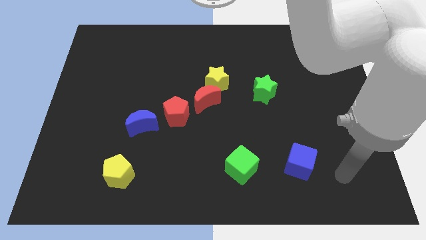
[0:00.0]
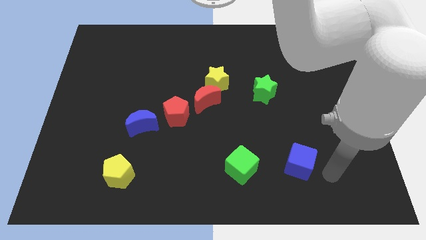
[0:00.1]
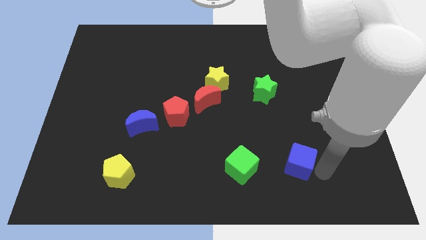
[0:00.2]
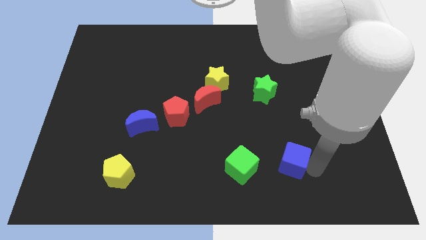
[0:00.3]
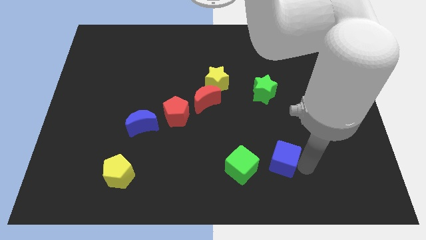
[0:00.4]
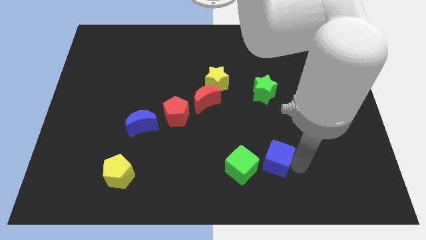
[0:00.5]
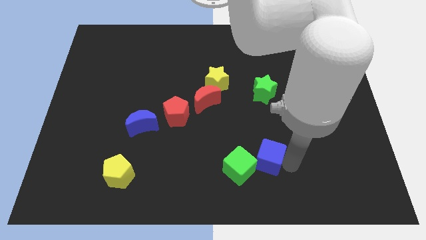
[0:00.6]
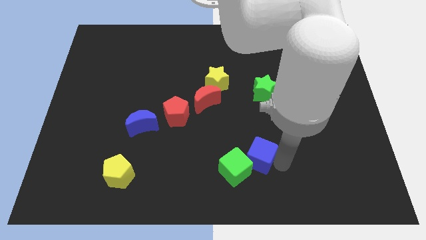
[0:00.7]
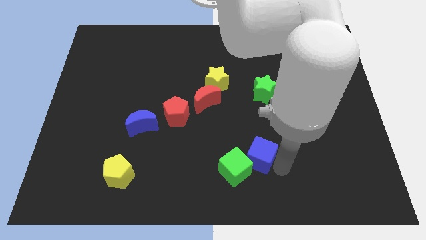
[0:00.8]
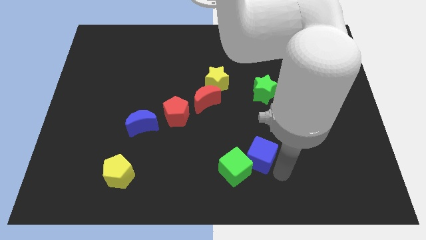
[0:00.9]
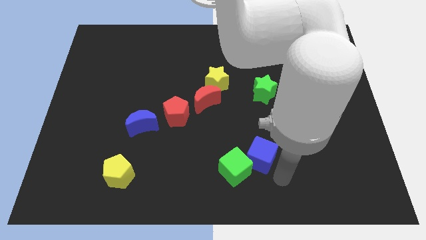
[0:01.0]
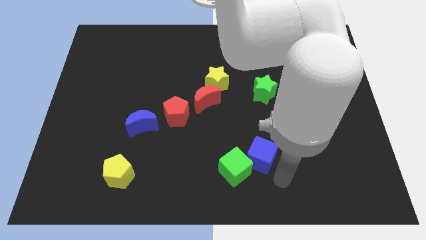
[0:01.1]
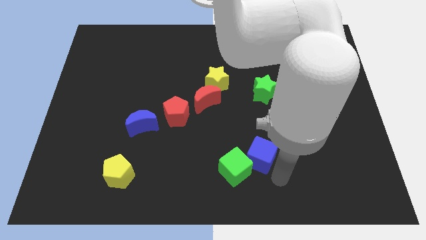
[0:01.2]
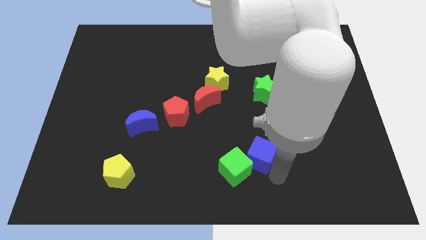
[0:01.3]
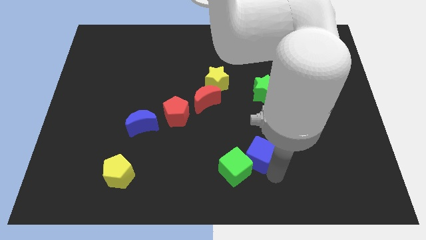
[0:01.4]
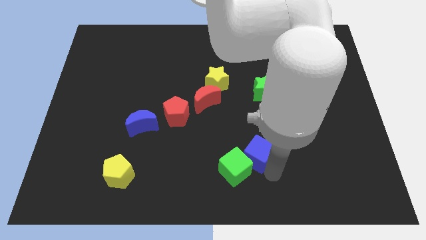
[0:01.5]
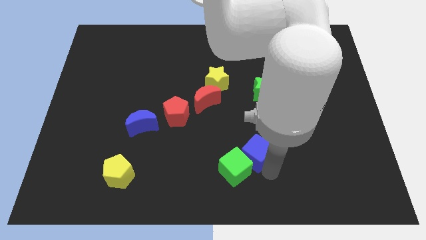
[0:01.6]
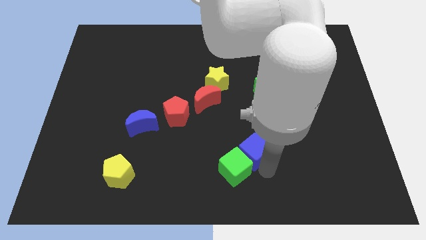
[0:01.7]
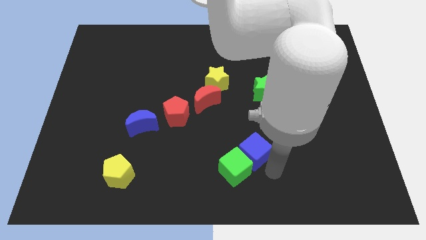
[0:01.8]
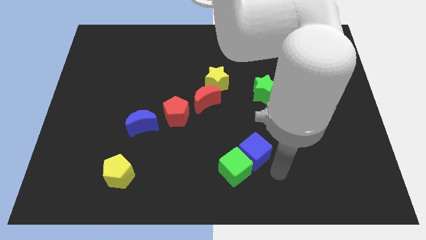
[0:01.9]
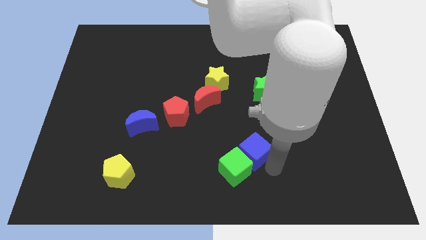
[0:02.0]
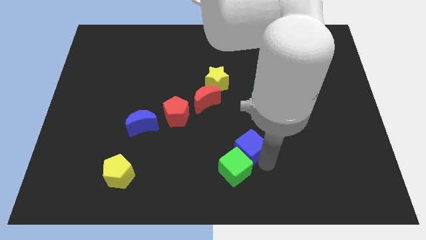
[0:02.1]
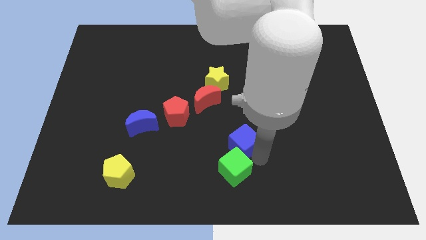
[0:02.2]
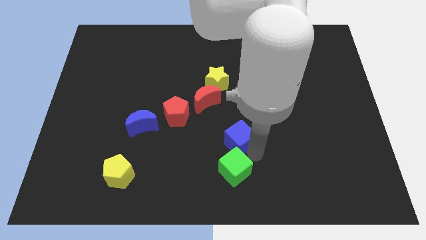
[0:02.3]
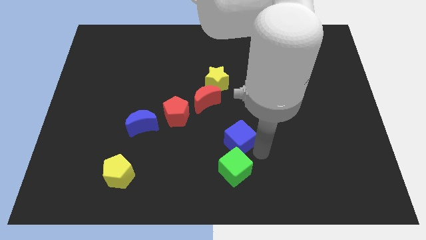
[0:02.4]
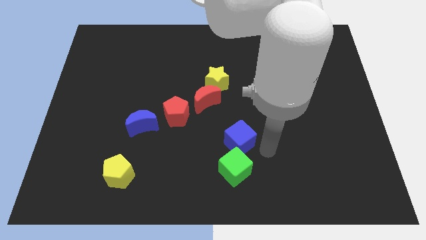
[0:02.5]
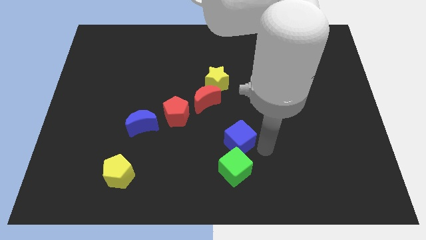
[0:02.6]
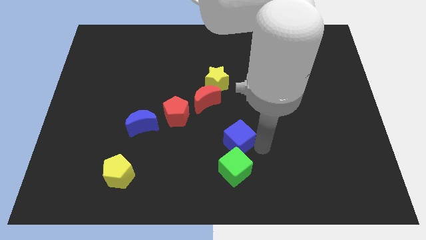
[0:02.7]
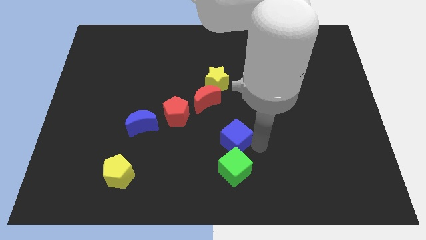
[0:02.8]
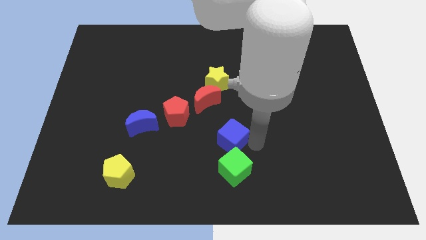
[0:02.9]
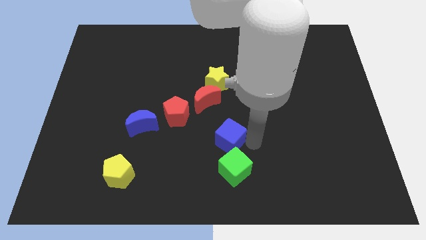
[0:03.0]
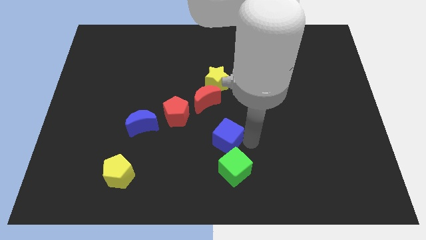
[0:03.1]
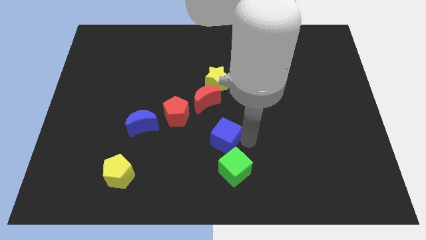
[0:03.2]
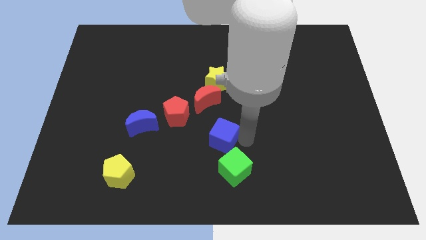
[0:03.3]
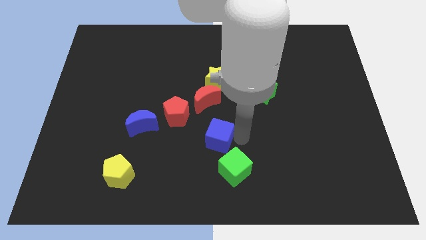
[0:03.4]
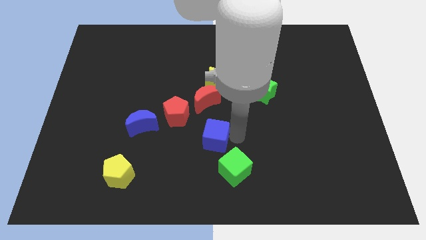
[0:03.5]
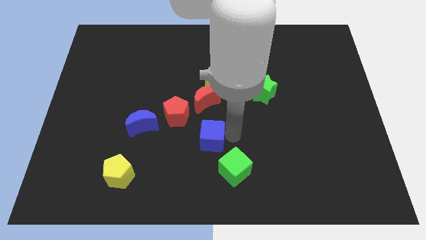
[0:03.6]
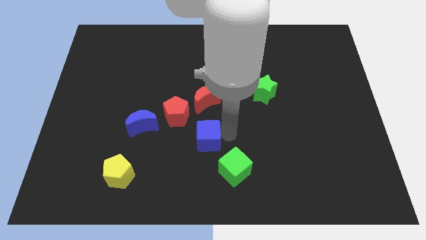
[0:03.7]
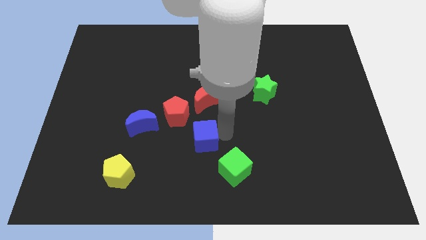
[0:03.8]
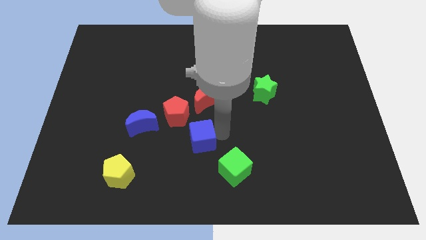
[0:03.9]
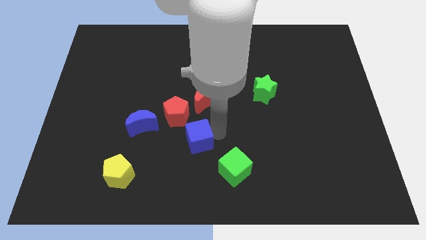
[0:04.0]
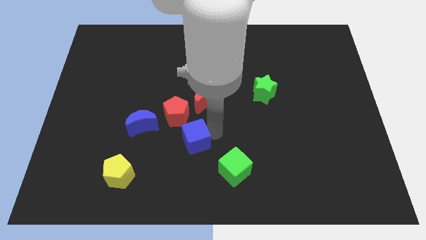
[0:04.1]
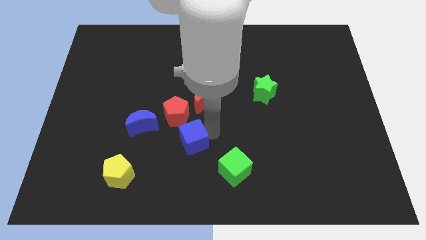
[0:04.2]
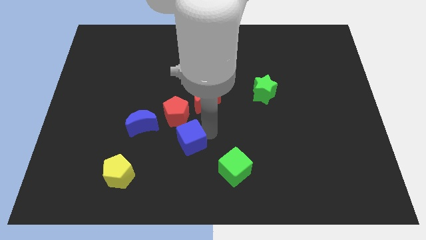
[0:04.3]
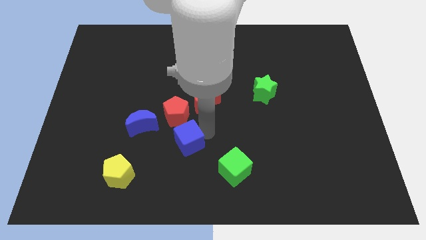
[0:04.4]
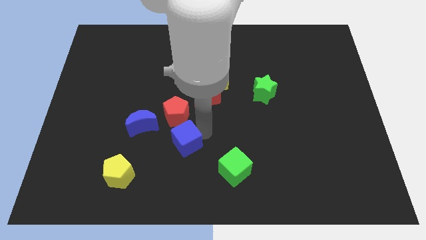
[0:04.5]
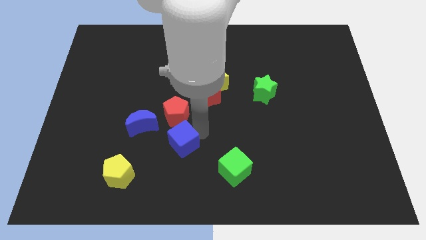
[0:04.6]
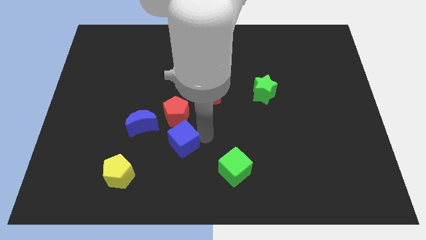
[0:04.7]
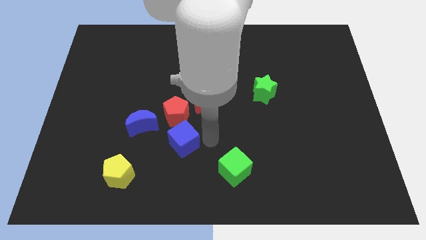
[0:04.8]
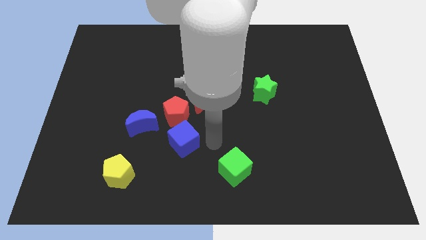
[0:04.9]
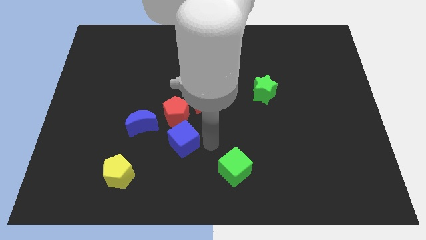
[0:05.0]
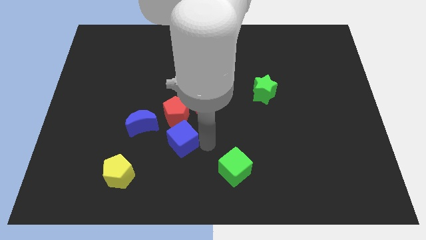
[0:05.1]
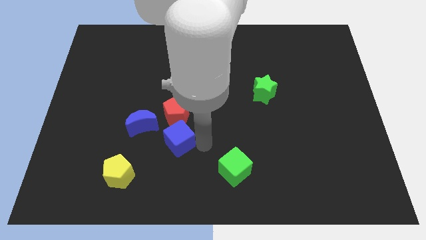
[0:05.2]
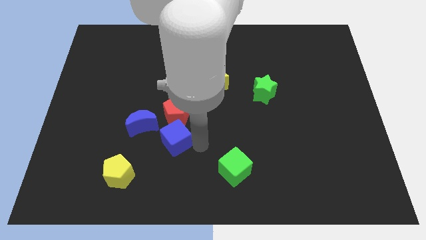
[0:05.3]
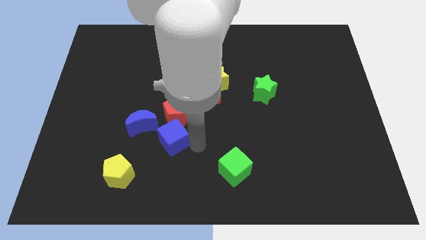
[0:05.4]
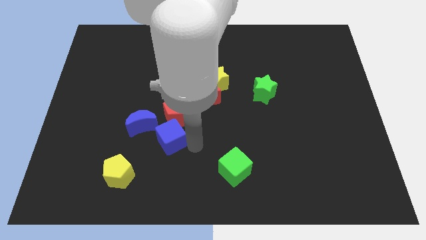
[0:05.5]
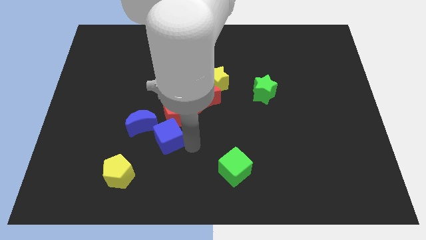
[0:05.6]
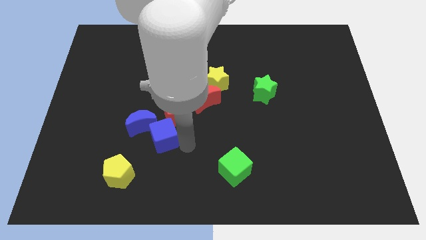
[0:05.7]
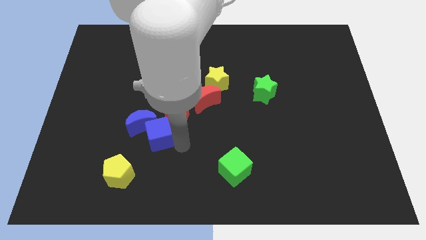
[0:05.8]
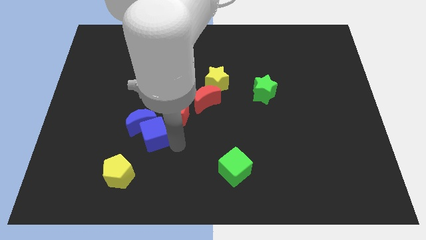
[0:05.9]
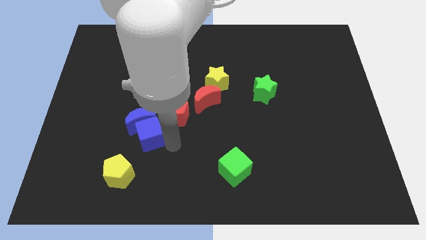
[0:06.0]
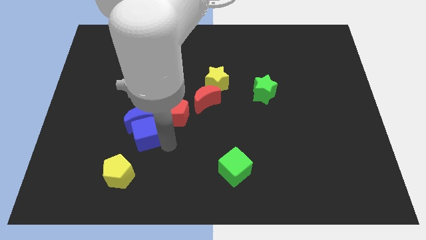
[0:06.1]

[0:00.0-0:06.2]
push the blue cube to the bottom left of the blue moon
